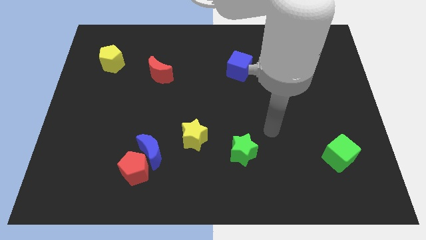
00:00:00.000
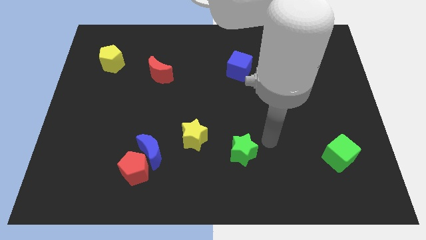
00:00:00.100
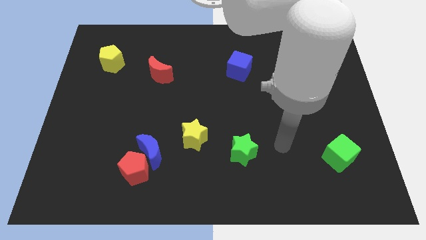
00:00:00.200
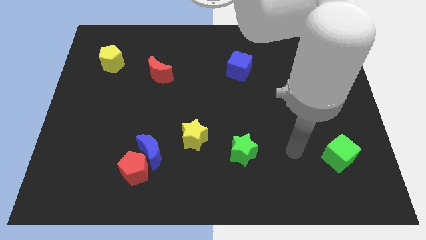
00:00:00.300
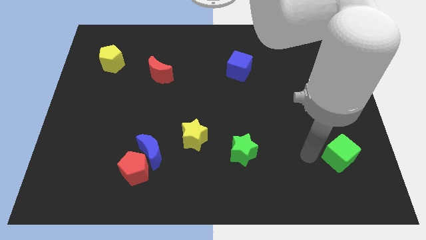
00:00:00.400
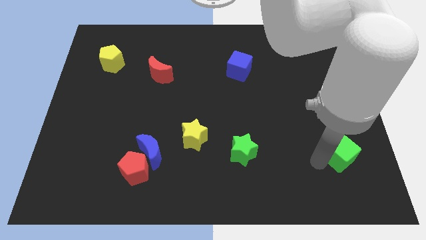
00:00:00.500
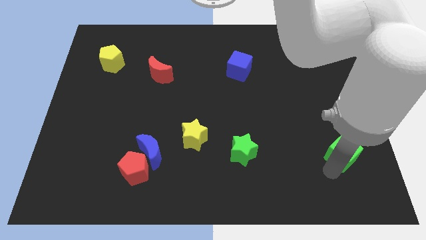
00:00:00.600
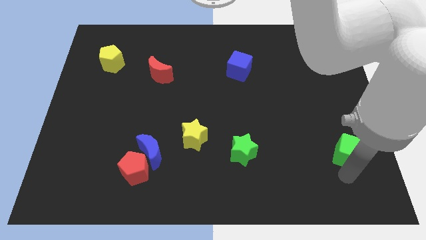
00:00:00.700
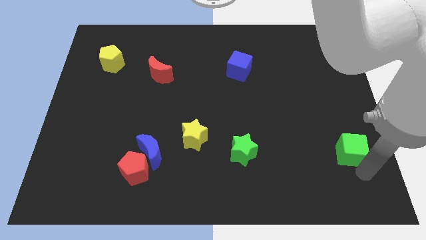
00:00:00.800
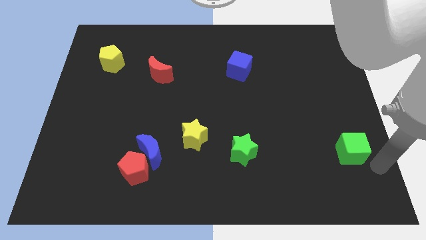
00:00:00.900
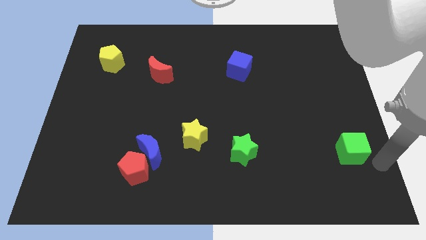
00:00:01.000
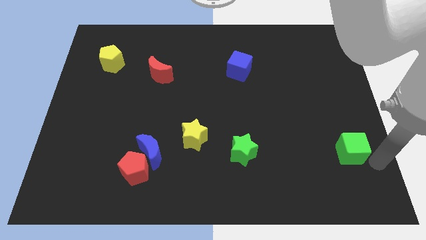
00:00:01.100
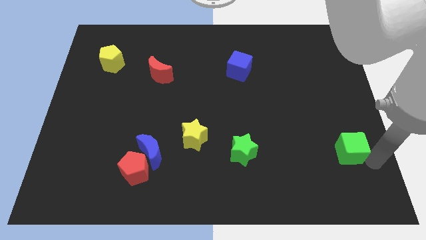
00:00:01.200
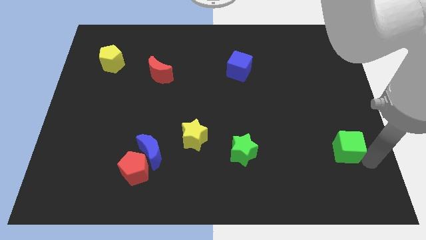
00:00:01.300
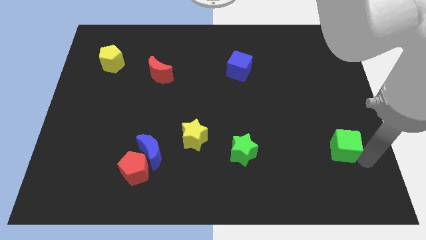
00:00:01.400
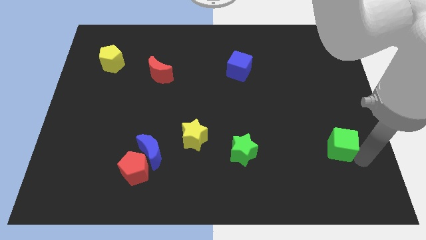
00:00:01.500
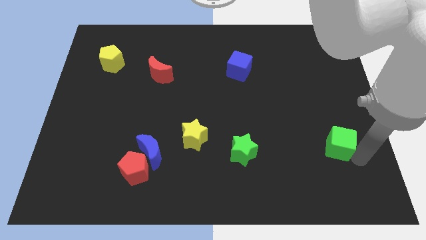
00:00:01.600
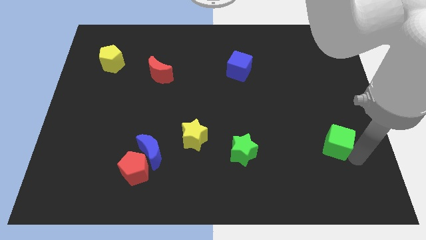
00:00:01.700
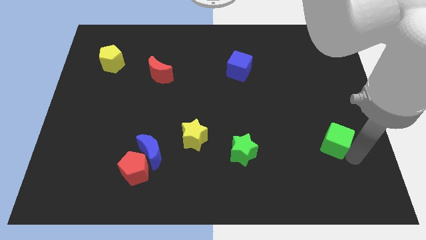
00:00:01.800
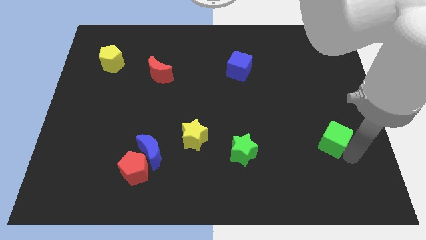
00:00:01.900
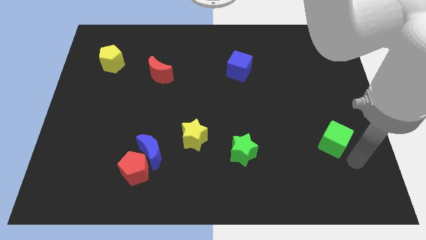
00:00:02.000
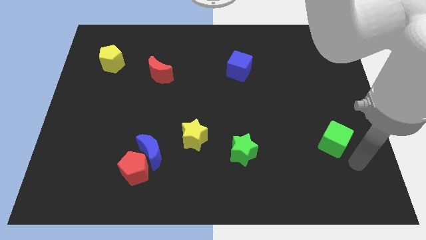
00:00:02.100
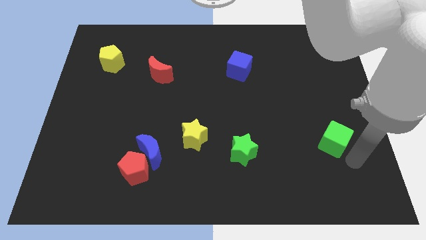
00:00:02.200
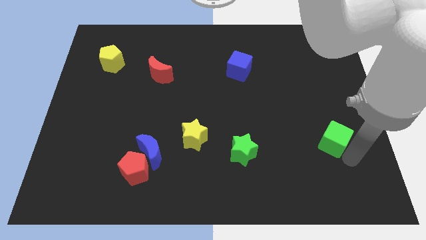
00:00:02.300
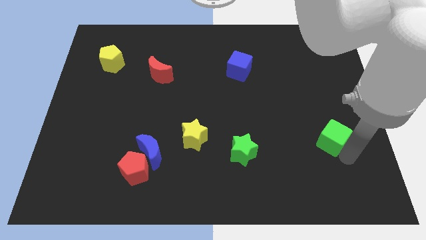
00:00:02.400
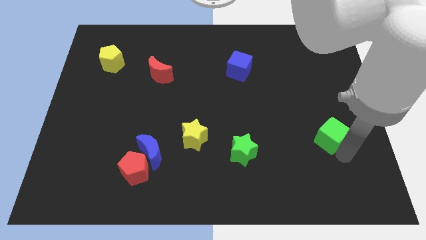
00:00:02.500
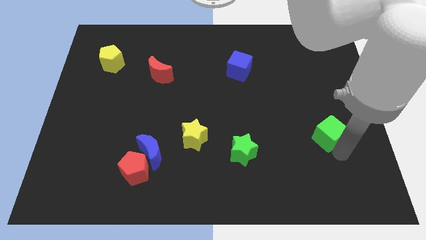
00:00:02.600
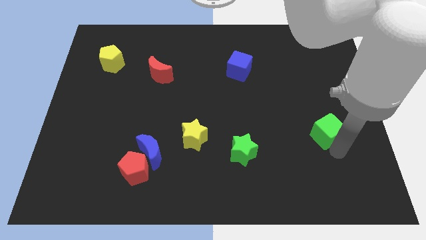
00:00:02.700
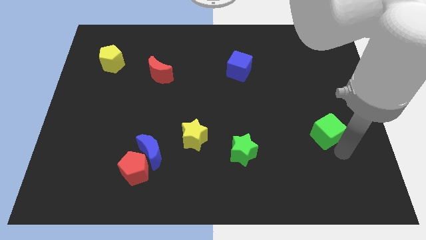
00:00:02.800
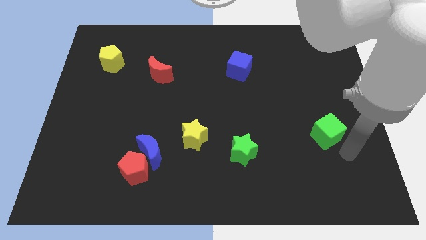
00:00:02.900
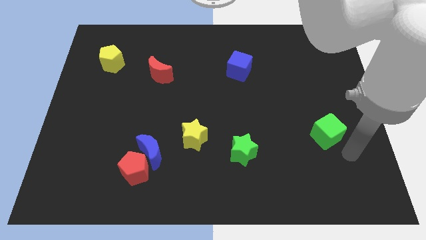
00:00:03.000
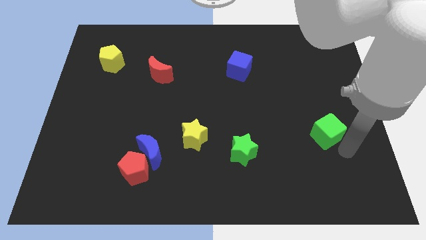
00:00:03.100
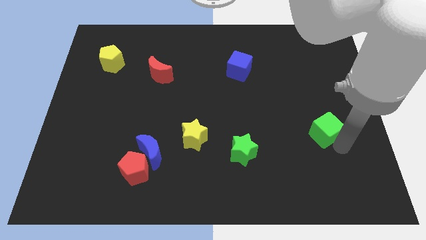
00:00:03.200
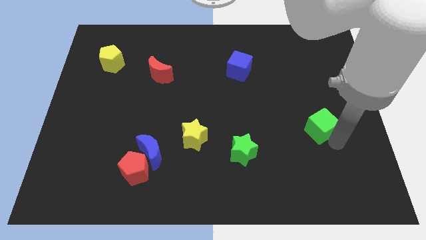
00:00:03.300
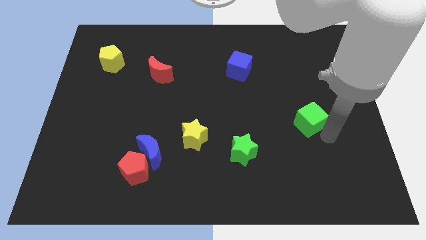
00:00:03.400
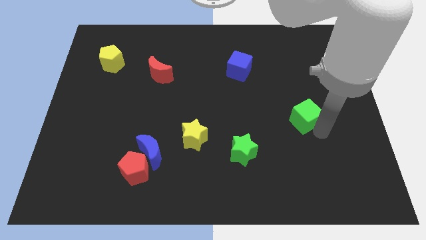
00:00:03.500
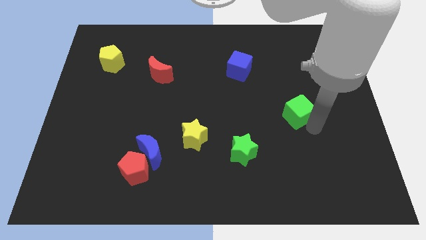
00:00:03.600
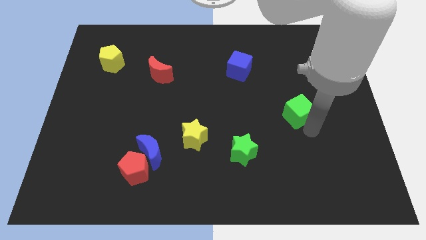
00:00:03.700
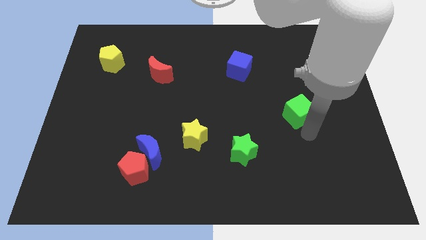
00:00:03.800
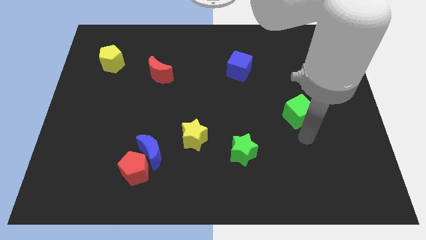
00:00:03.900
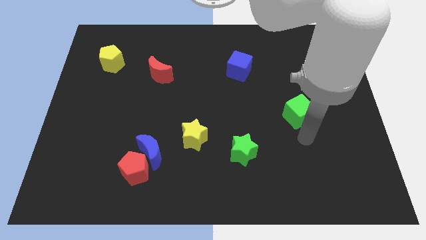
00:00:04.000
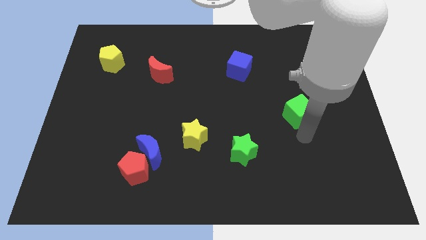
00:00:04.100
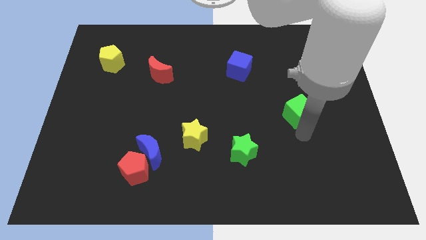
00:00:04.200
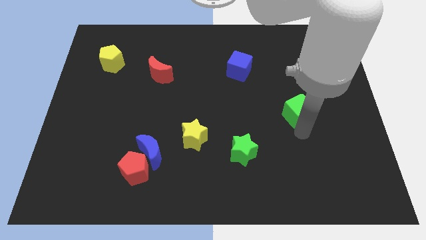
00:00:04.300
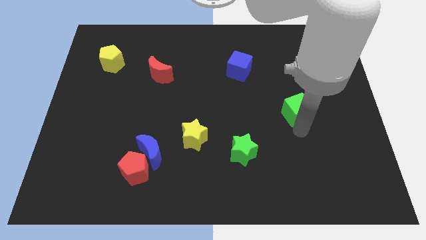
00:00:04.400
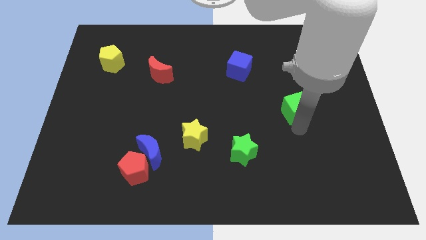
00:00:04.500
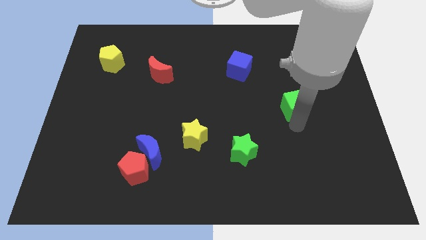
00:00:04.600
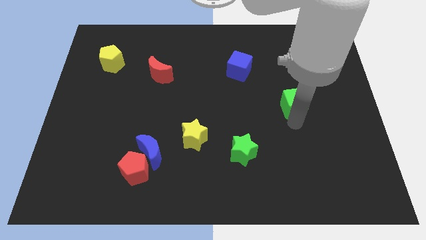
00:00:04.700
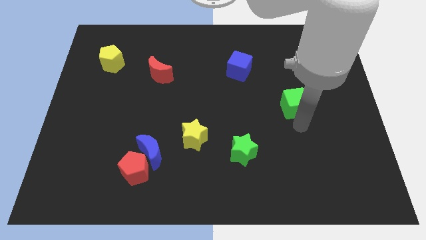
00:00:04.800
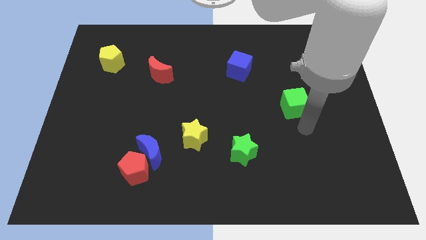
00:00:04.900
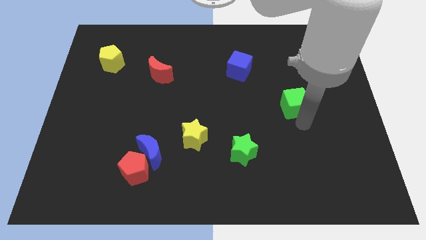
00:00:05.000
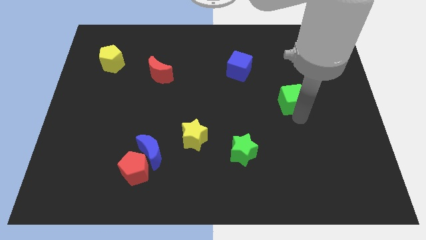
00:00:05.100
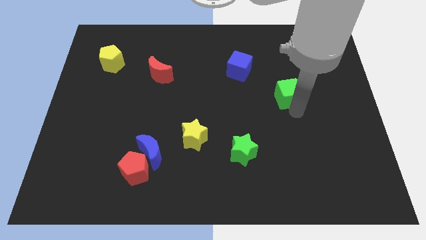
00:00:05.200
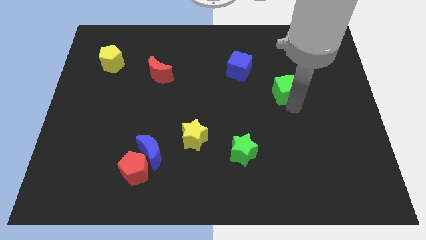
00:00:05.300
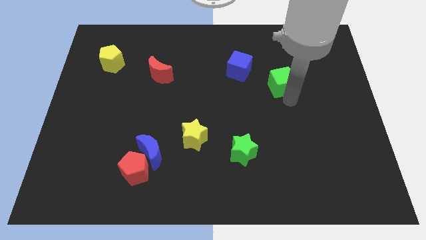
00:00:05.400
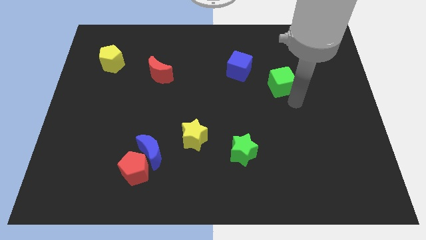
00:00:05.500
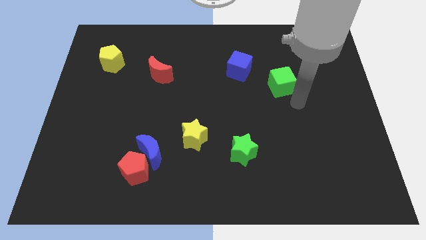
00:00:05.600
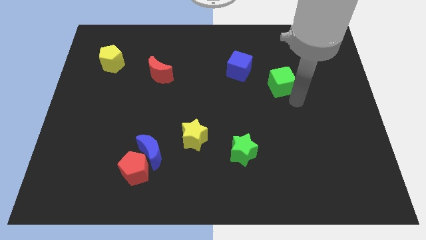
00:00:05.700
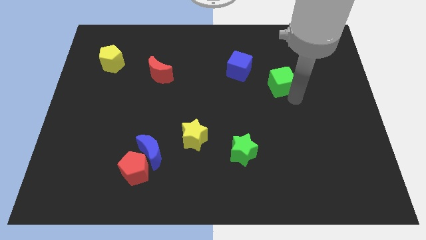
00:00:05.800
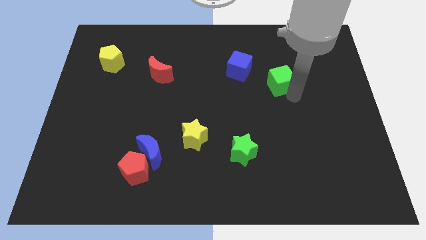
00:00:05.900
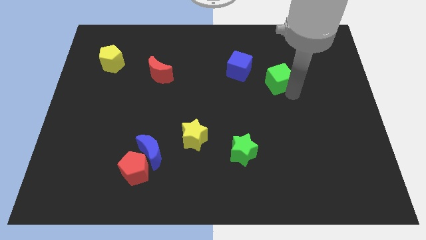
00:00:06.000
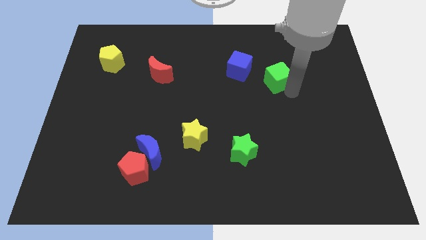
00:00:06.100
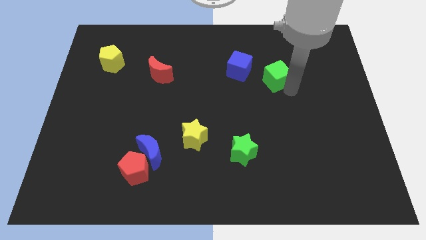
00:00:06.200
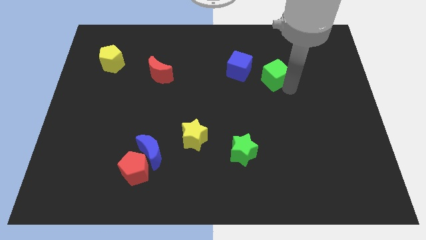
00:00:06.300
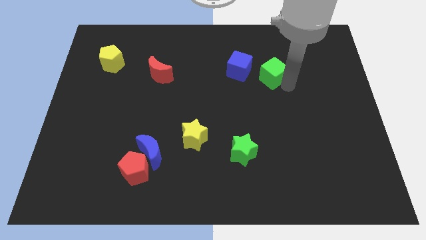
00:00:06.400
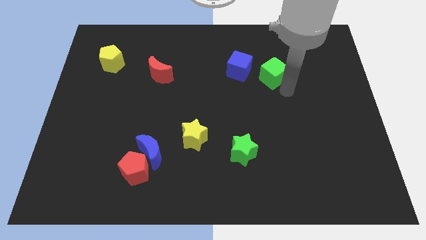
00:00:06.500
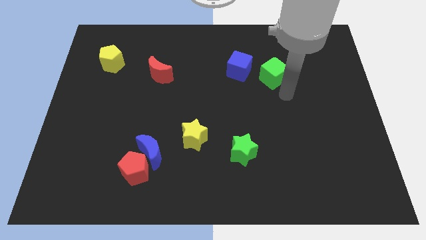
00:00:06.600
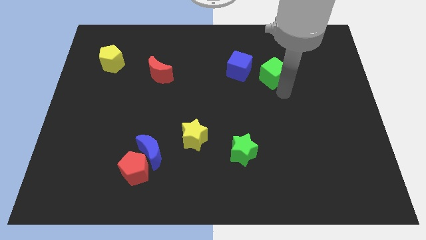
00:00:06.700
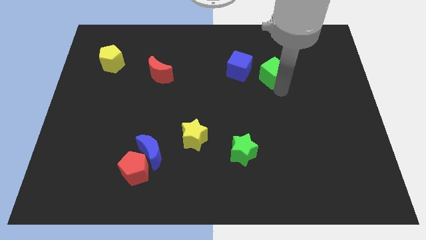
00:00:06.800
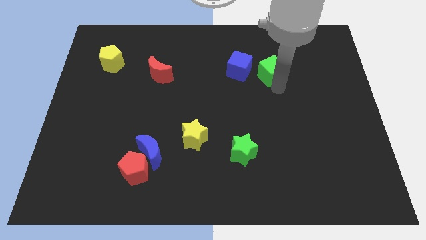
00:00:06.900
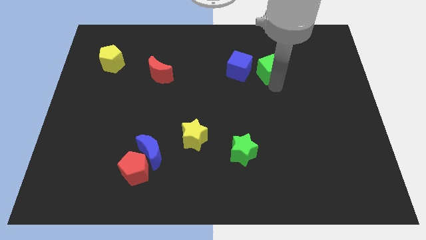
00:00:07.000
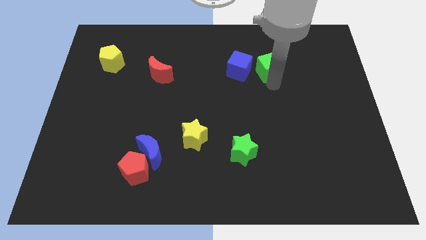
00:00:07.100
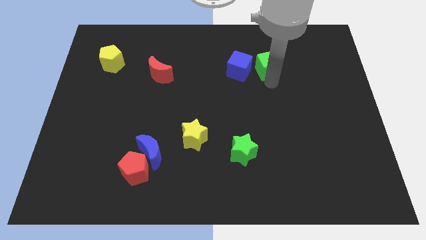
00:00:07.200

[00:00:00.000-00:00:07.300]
push the green cube to the top right of the blue cube
